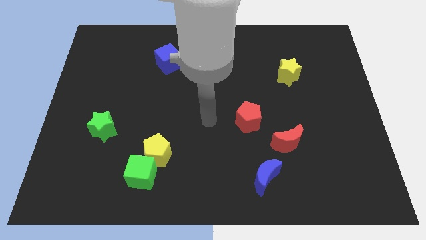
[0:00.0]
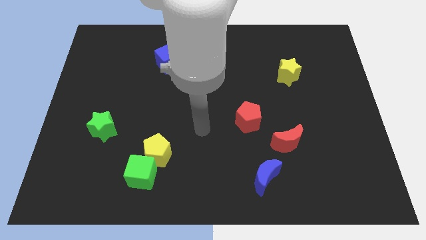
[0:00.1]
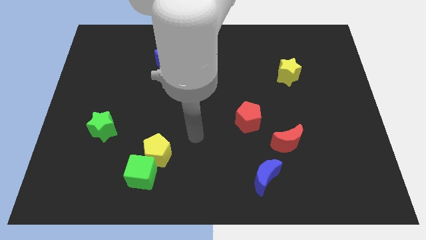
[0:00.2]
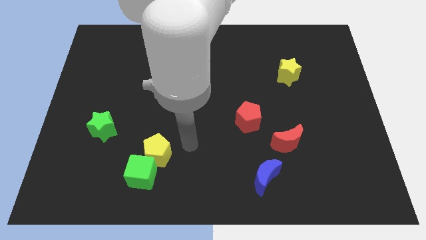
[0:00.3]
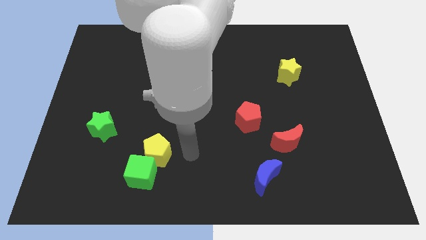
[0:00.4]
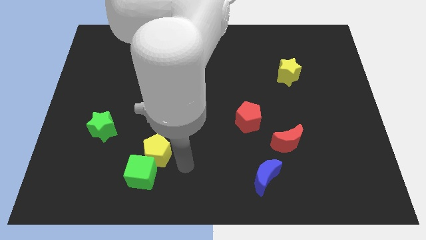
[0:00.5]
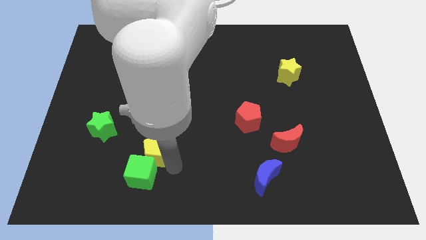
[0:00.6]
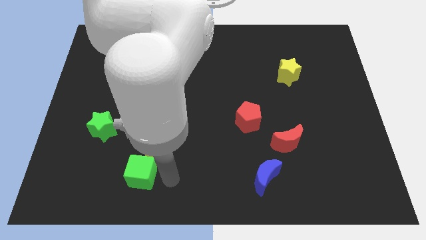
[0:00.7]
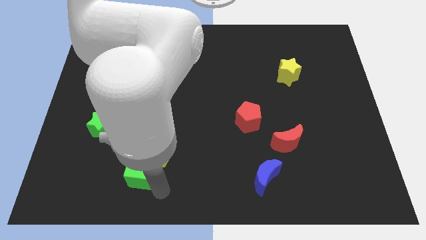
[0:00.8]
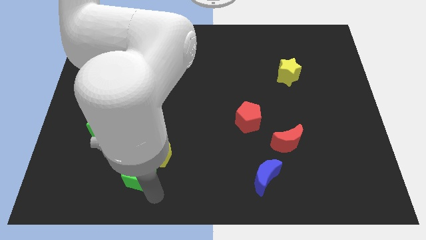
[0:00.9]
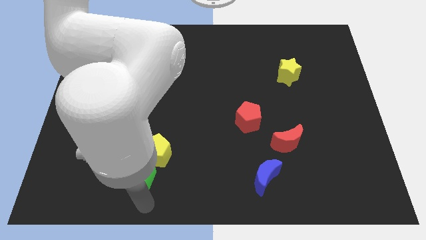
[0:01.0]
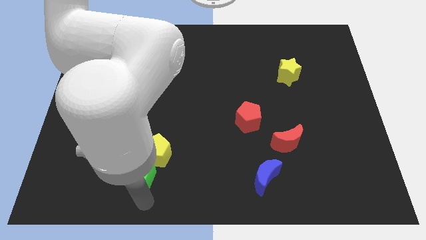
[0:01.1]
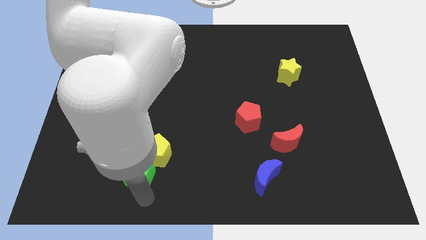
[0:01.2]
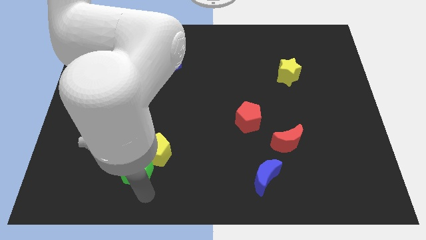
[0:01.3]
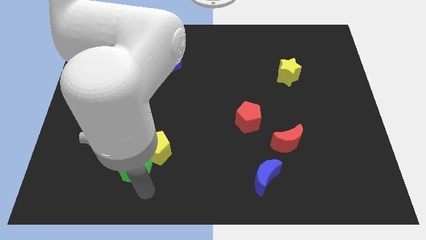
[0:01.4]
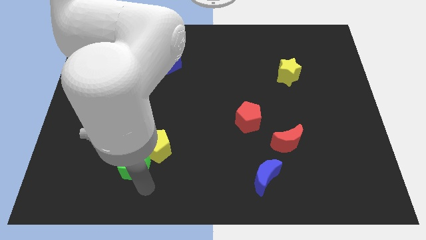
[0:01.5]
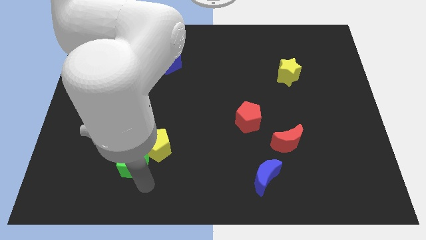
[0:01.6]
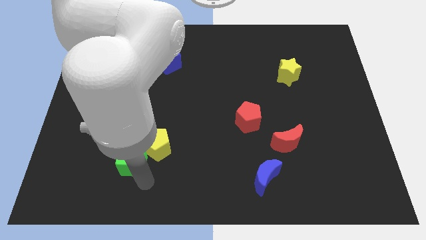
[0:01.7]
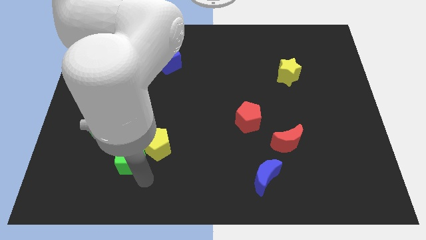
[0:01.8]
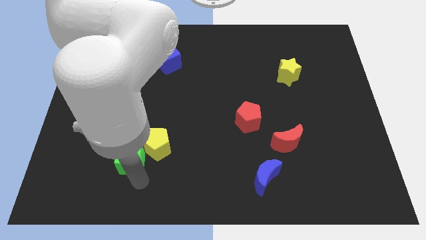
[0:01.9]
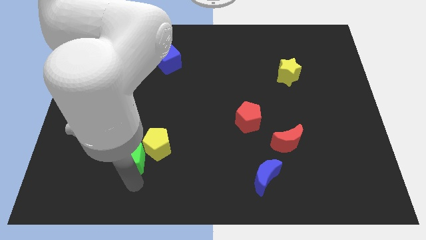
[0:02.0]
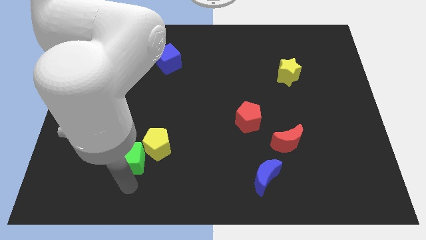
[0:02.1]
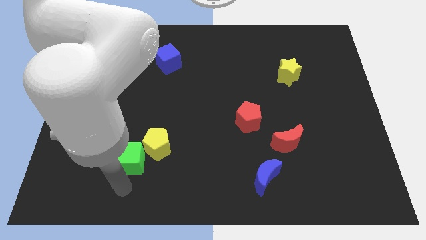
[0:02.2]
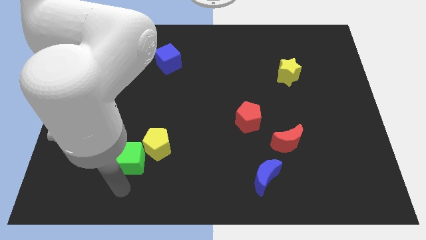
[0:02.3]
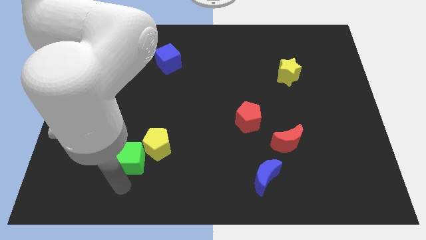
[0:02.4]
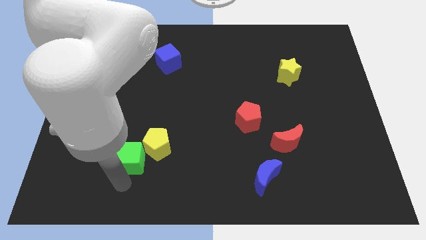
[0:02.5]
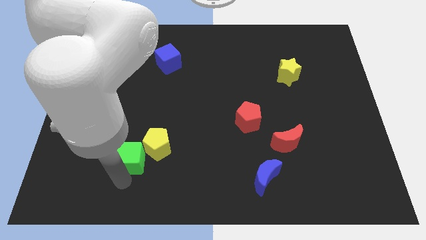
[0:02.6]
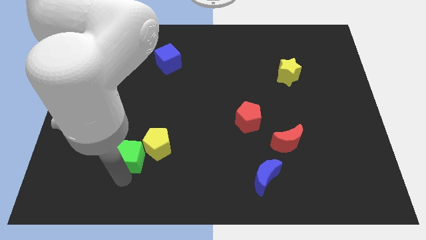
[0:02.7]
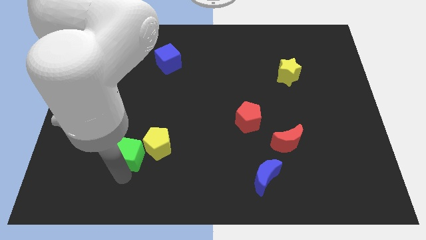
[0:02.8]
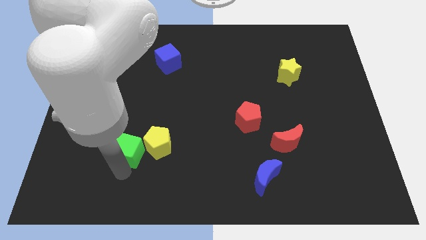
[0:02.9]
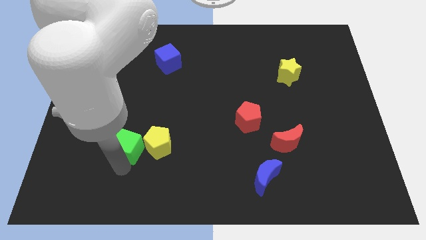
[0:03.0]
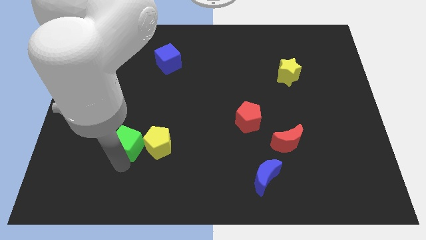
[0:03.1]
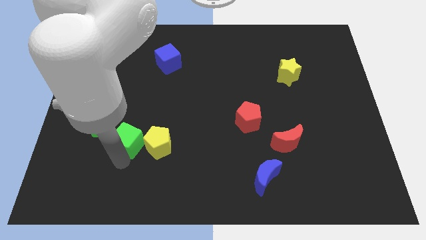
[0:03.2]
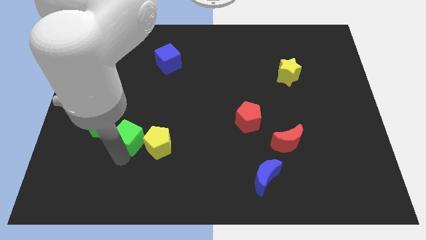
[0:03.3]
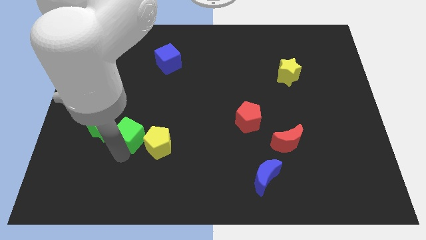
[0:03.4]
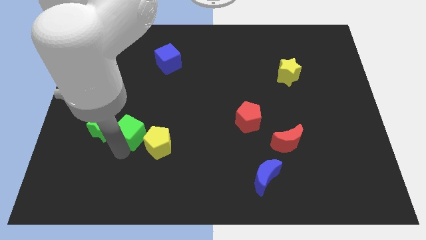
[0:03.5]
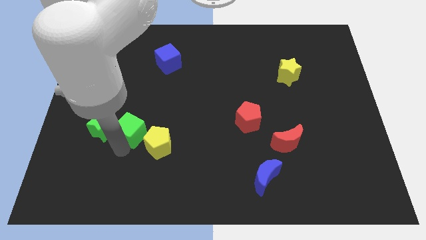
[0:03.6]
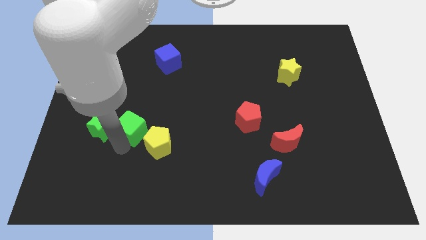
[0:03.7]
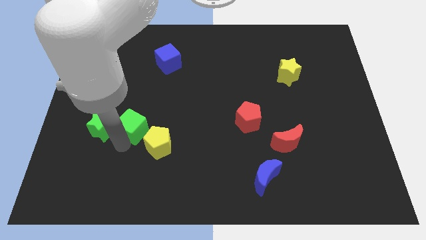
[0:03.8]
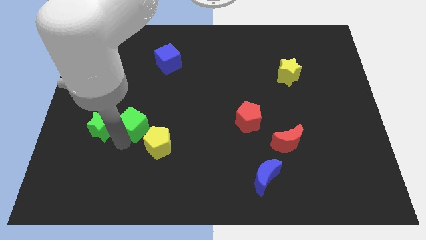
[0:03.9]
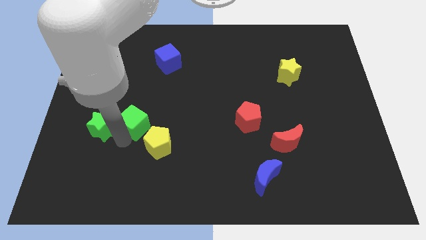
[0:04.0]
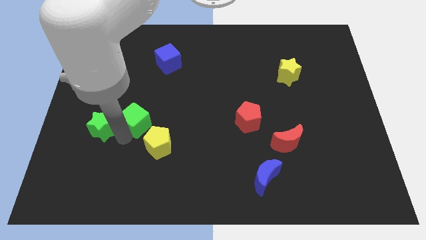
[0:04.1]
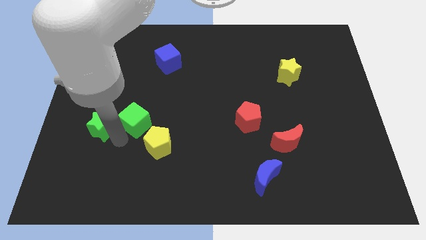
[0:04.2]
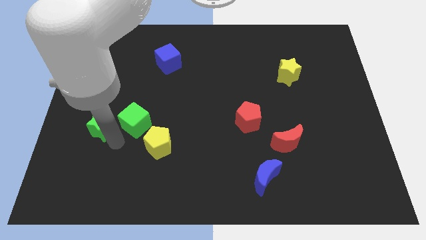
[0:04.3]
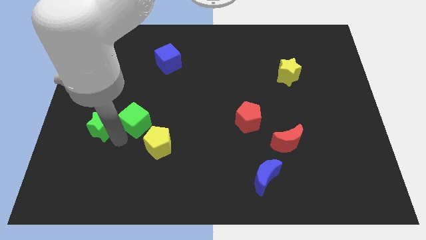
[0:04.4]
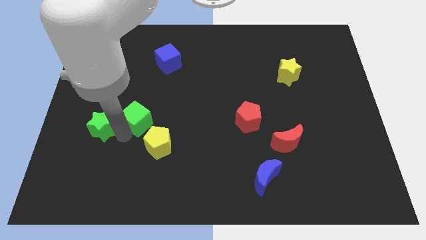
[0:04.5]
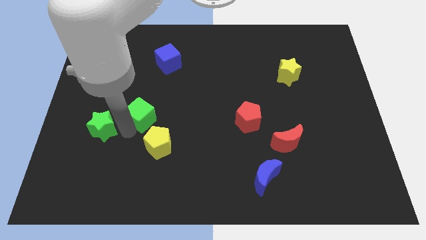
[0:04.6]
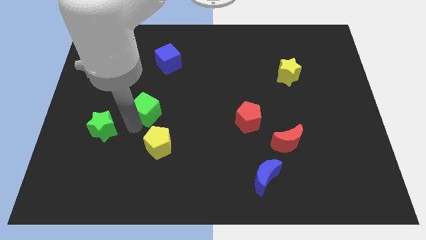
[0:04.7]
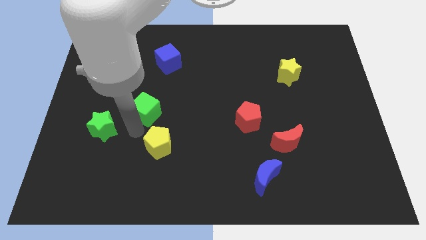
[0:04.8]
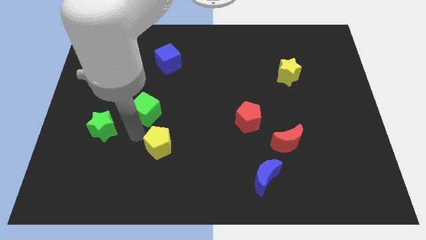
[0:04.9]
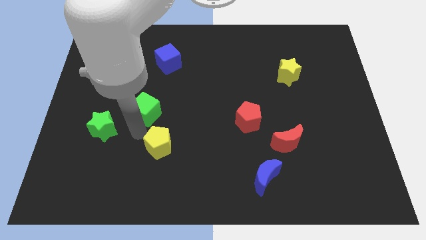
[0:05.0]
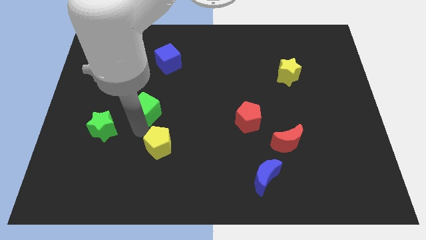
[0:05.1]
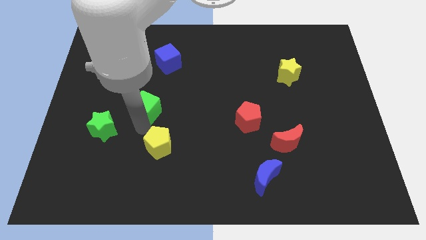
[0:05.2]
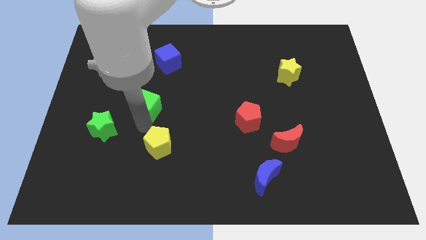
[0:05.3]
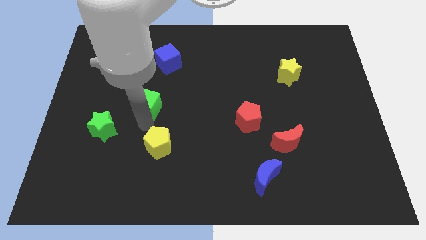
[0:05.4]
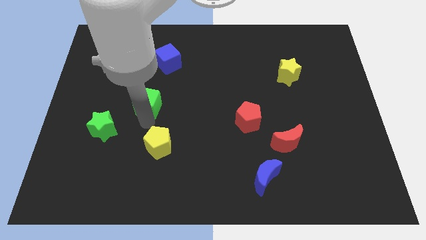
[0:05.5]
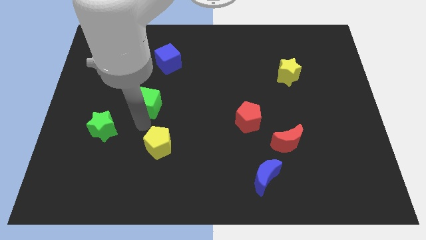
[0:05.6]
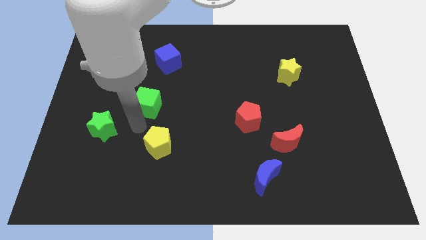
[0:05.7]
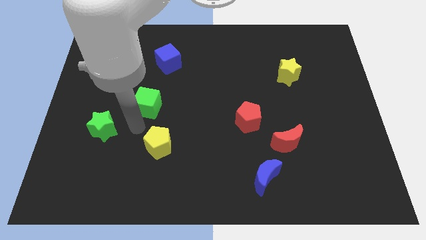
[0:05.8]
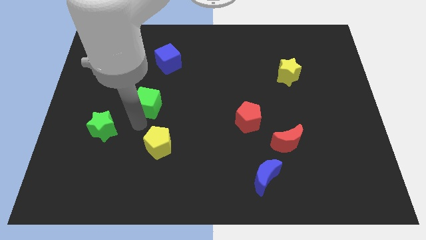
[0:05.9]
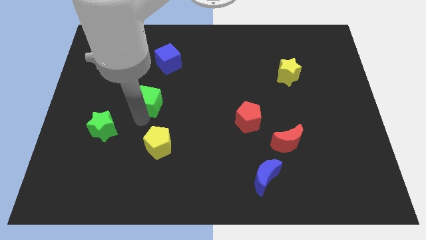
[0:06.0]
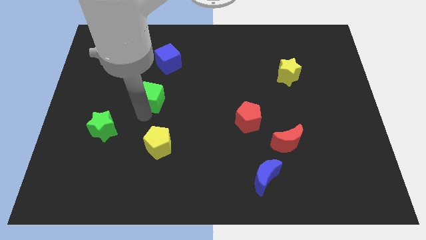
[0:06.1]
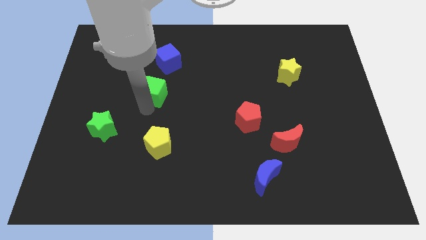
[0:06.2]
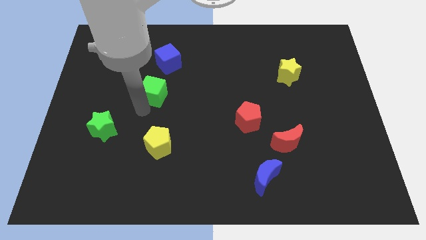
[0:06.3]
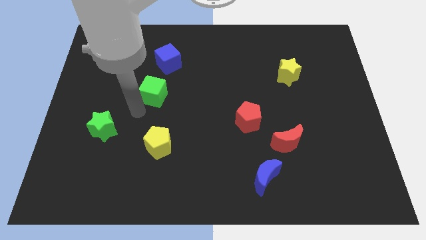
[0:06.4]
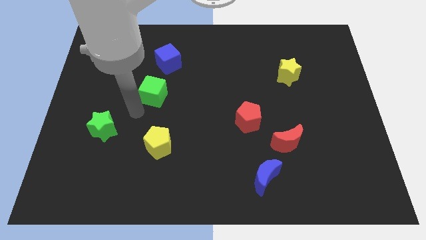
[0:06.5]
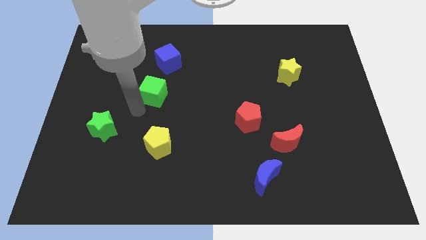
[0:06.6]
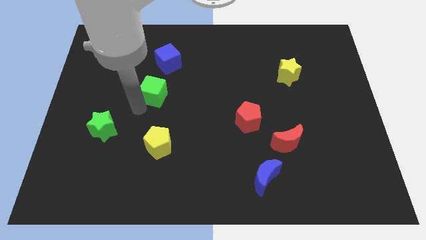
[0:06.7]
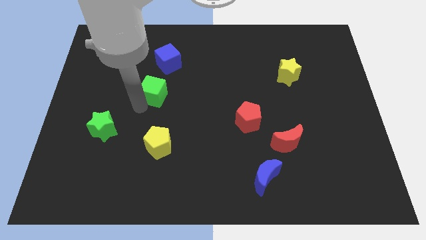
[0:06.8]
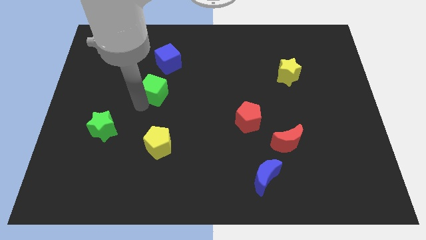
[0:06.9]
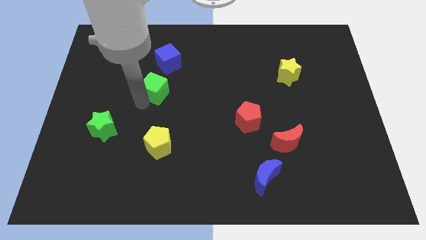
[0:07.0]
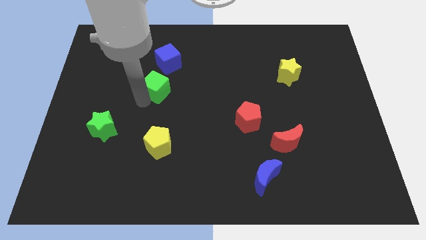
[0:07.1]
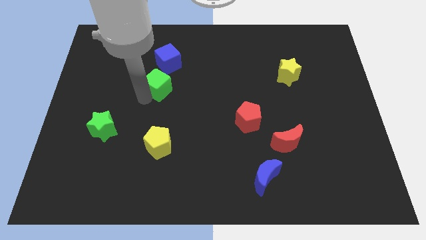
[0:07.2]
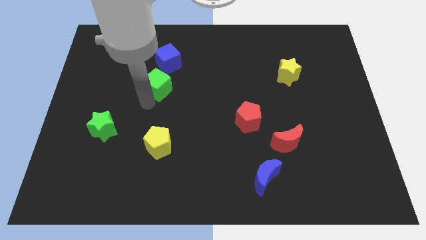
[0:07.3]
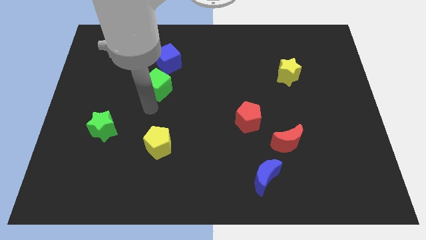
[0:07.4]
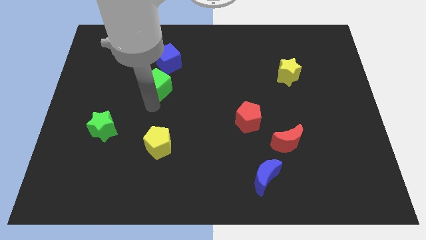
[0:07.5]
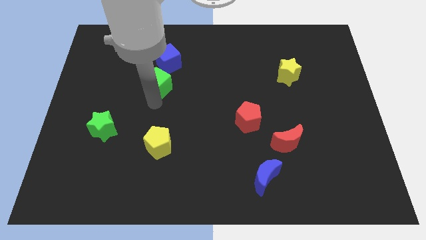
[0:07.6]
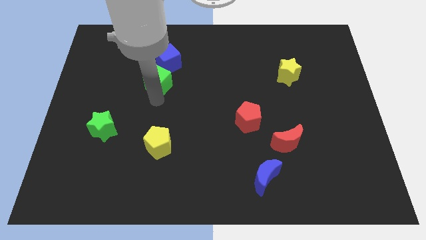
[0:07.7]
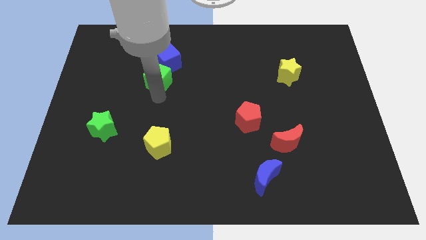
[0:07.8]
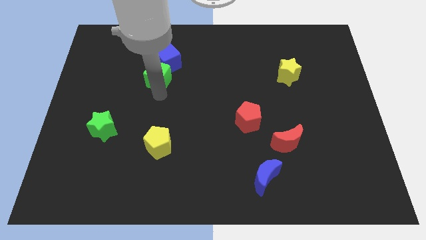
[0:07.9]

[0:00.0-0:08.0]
push the green cube to the blue cube
